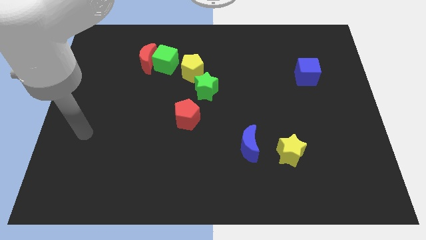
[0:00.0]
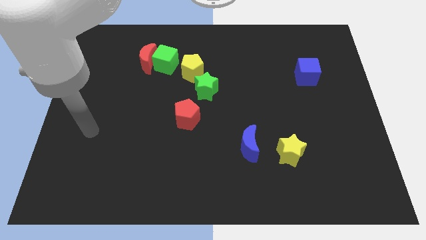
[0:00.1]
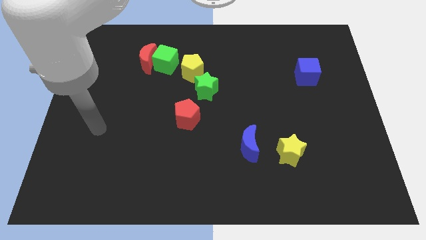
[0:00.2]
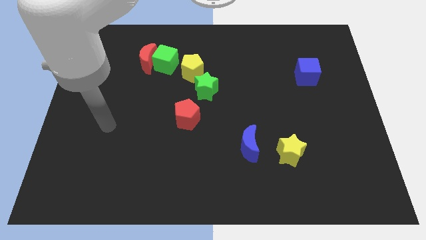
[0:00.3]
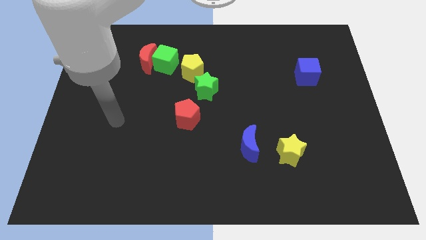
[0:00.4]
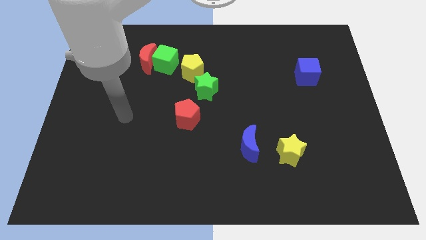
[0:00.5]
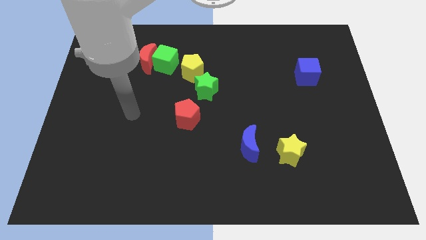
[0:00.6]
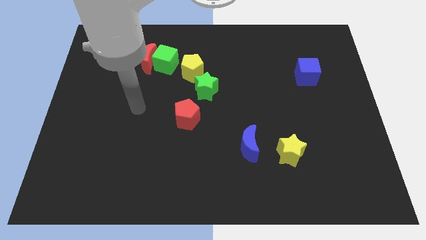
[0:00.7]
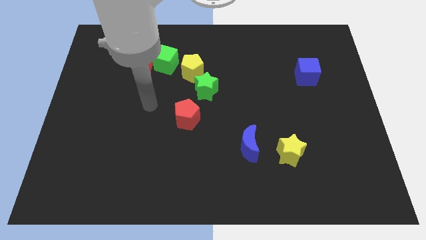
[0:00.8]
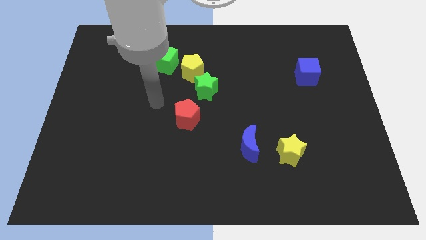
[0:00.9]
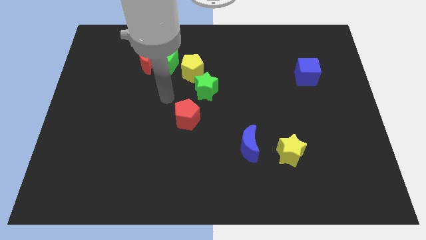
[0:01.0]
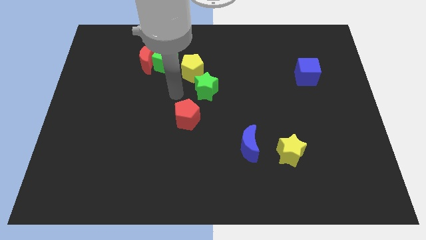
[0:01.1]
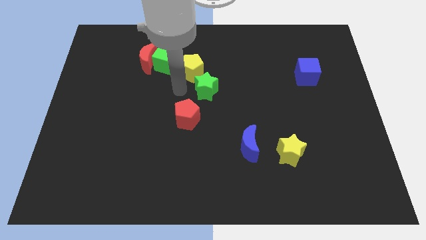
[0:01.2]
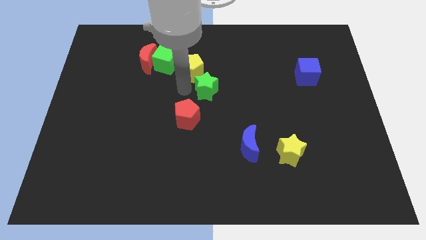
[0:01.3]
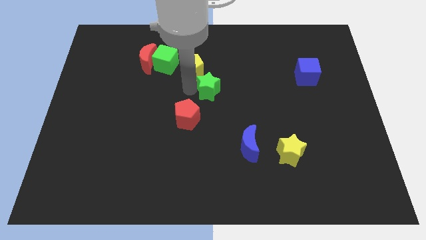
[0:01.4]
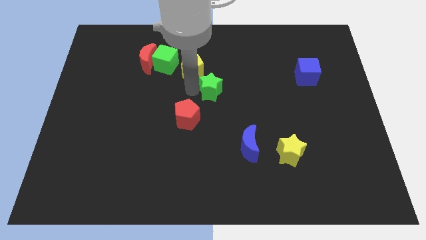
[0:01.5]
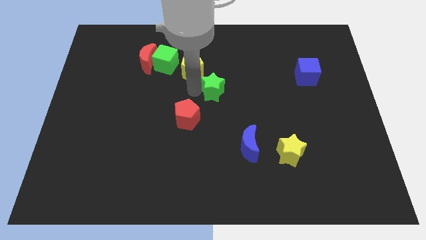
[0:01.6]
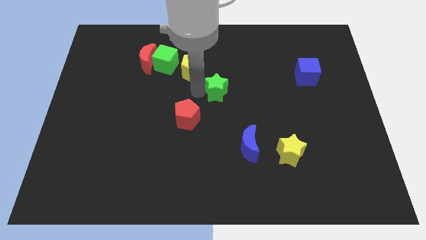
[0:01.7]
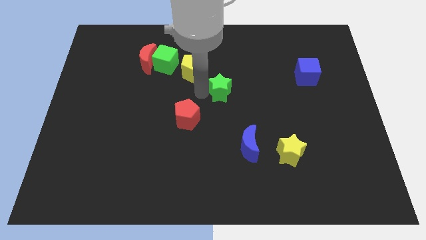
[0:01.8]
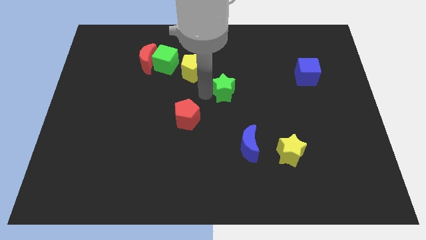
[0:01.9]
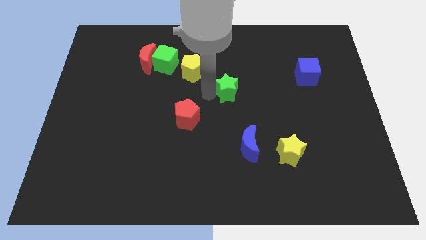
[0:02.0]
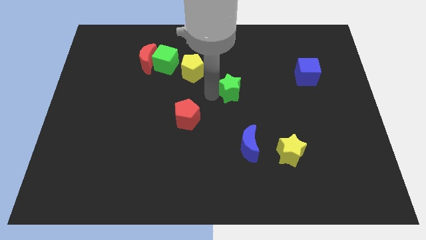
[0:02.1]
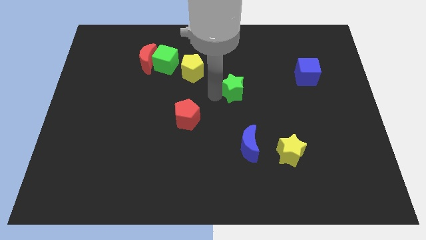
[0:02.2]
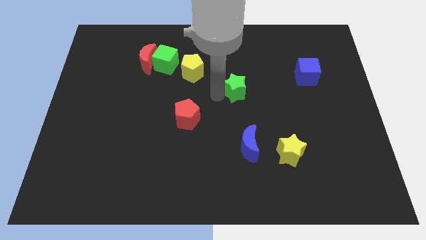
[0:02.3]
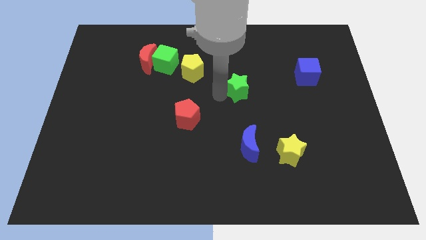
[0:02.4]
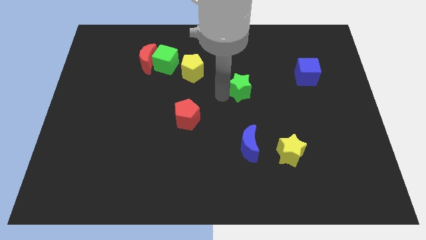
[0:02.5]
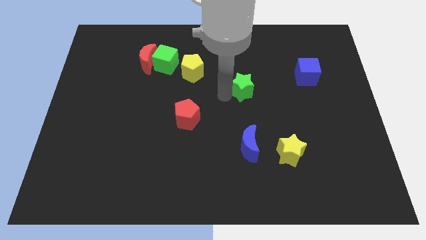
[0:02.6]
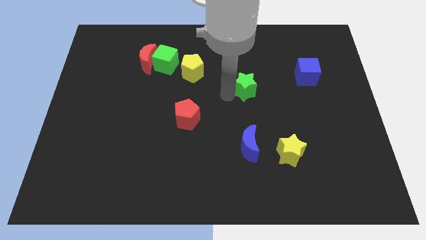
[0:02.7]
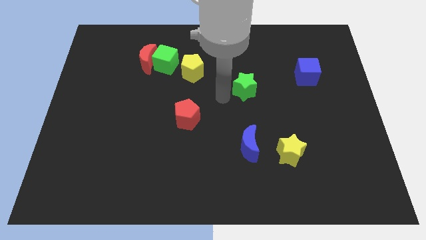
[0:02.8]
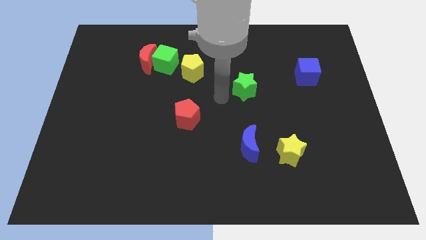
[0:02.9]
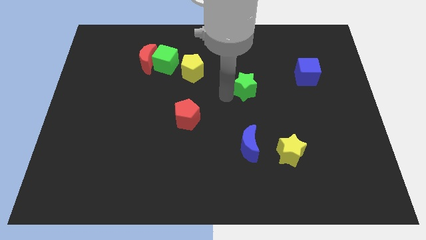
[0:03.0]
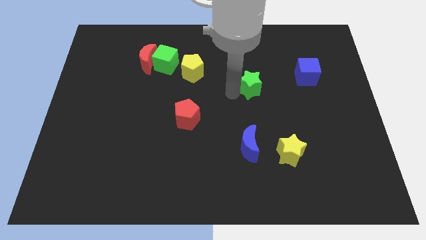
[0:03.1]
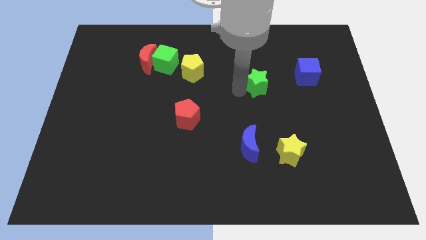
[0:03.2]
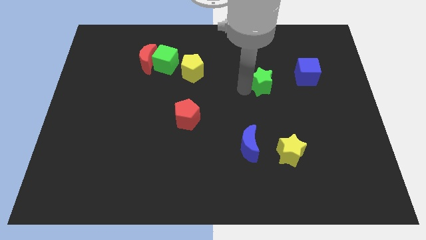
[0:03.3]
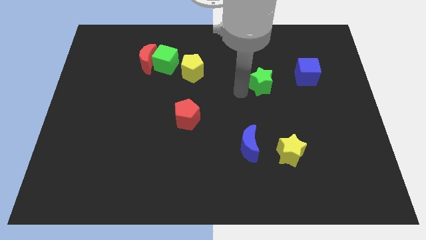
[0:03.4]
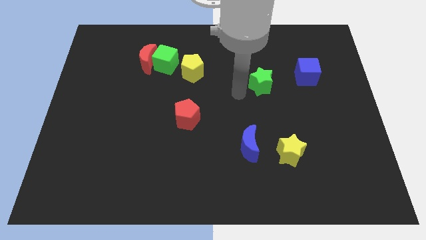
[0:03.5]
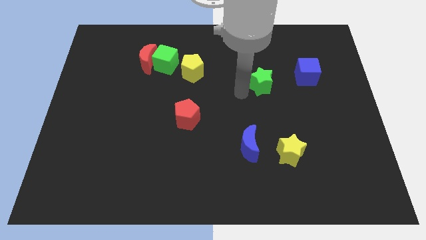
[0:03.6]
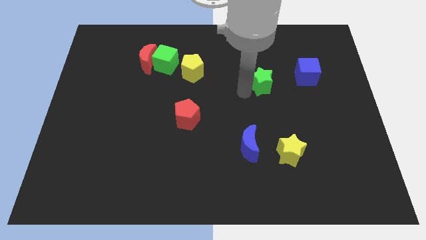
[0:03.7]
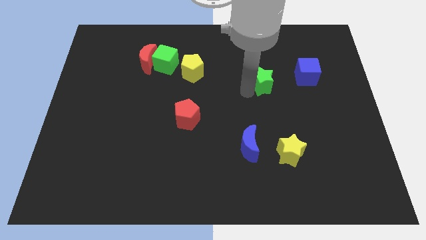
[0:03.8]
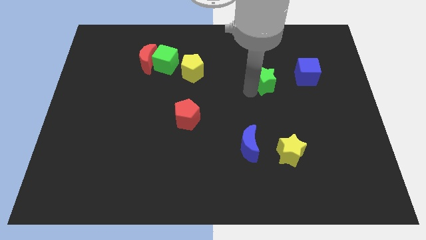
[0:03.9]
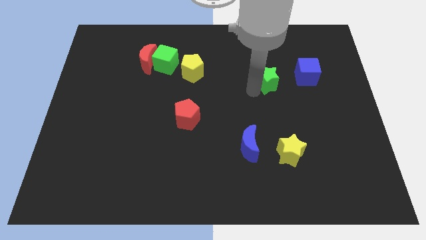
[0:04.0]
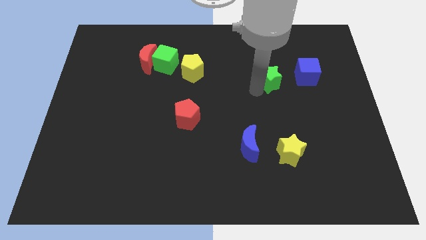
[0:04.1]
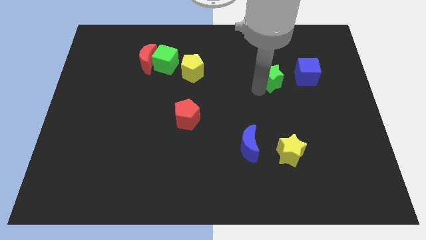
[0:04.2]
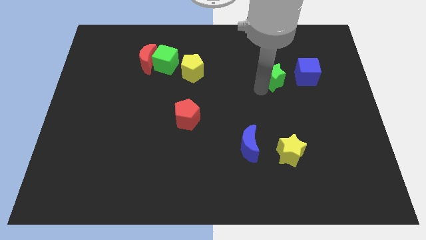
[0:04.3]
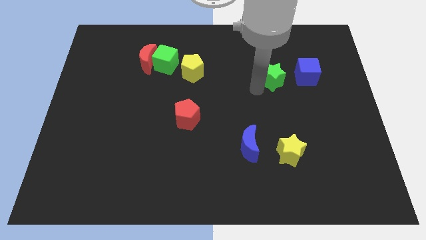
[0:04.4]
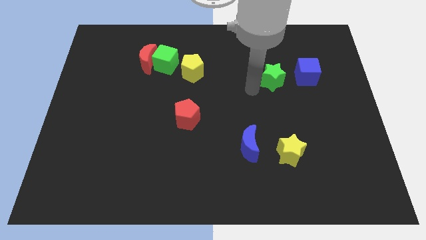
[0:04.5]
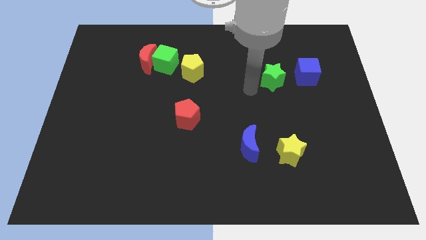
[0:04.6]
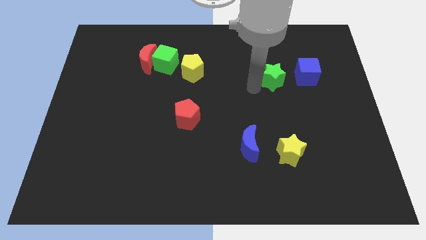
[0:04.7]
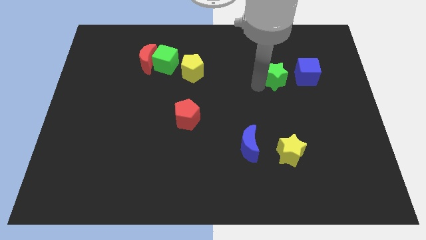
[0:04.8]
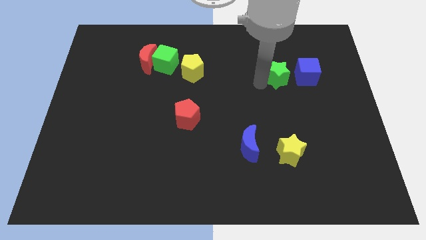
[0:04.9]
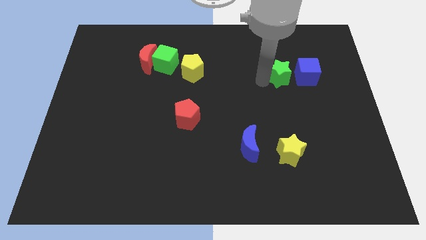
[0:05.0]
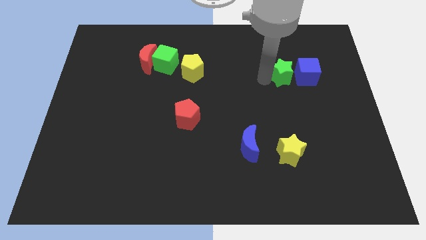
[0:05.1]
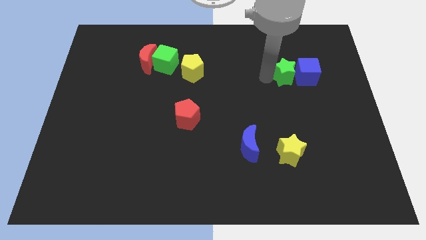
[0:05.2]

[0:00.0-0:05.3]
put the green star next to the blue cube

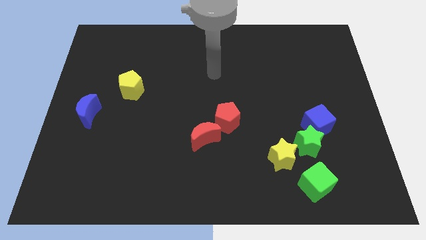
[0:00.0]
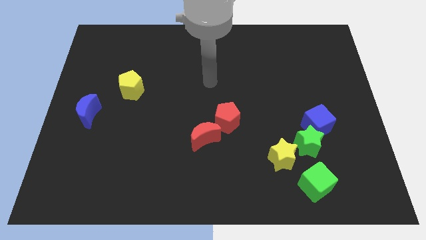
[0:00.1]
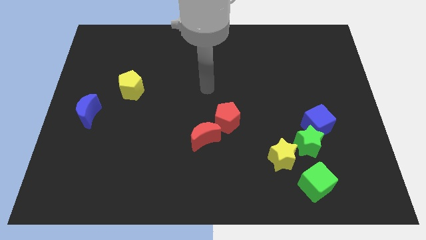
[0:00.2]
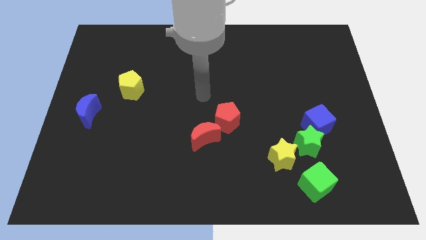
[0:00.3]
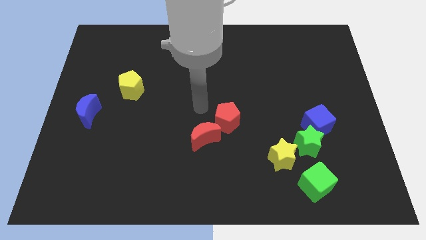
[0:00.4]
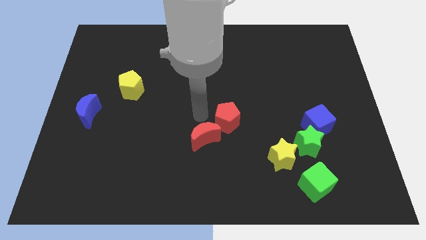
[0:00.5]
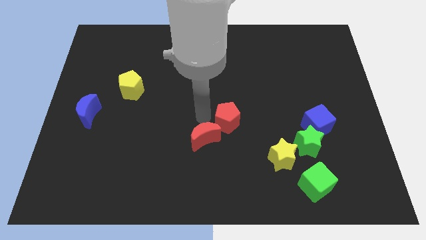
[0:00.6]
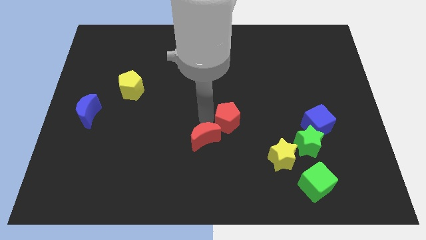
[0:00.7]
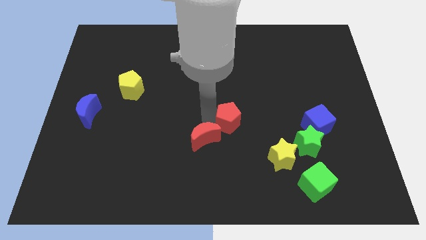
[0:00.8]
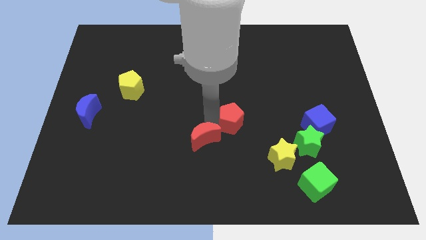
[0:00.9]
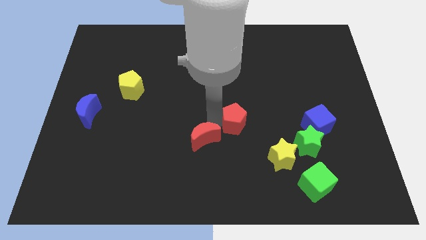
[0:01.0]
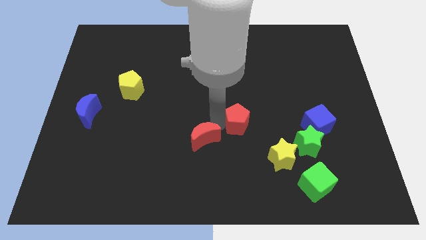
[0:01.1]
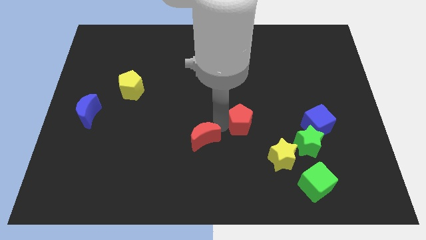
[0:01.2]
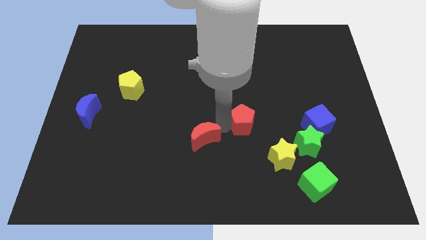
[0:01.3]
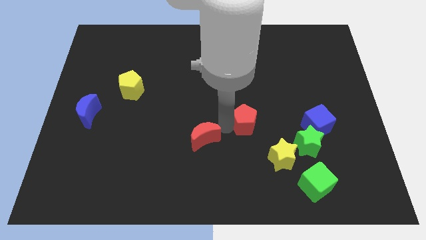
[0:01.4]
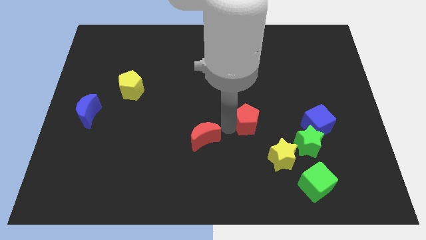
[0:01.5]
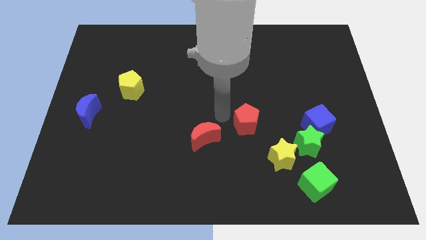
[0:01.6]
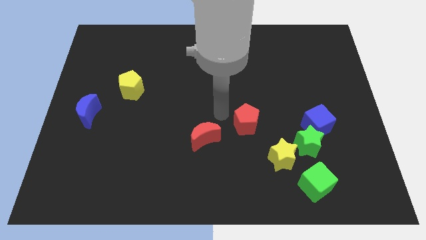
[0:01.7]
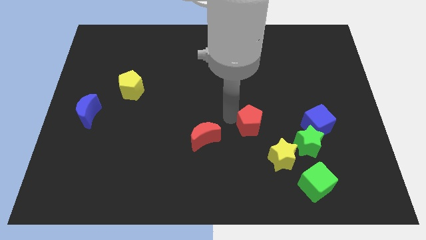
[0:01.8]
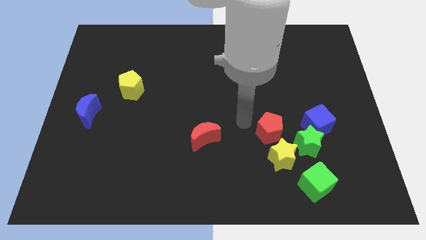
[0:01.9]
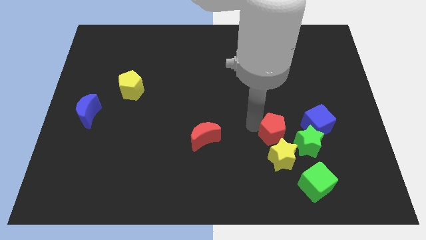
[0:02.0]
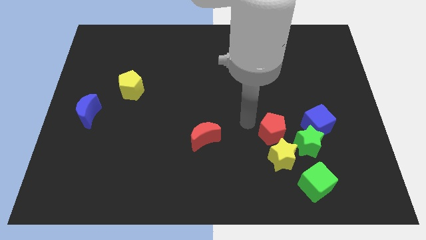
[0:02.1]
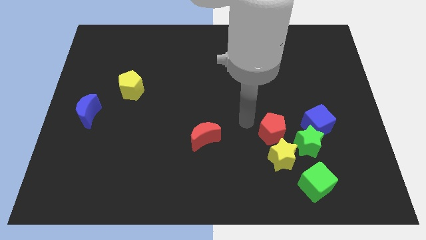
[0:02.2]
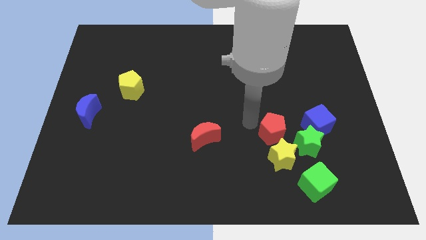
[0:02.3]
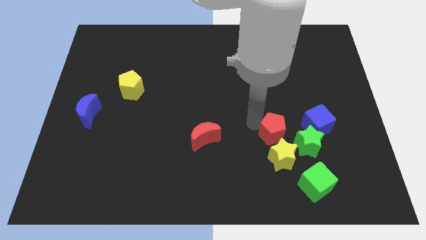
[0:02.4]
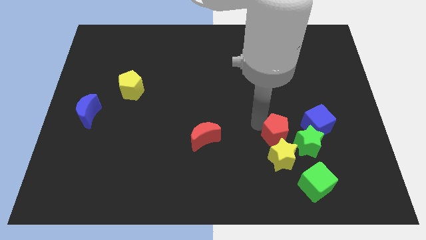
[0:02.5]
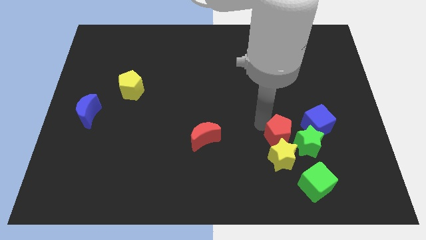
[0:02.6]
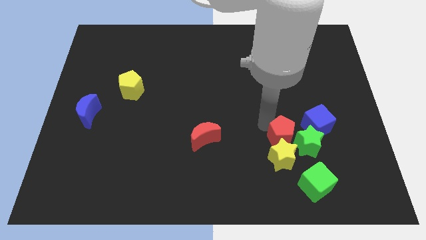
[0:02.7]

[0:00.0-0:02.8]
slide the red pentagon close to the green star
